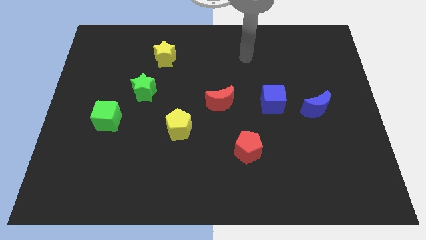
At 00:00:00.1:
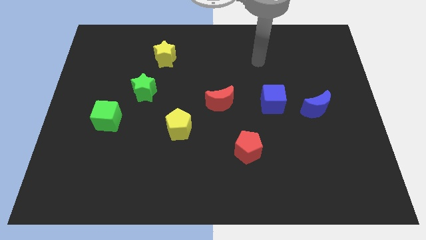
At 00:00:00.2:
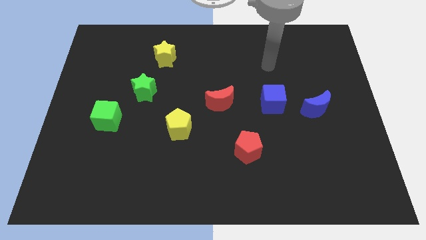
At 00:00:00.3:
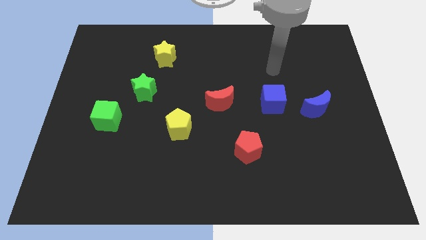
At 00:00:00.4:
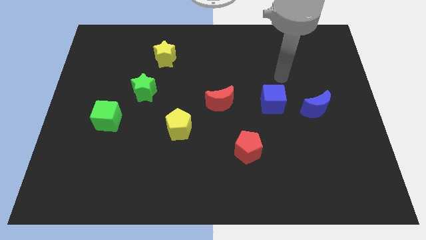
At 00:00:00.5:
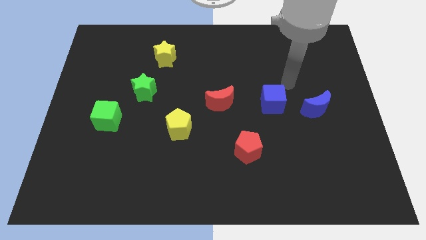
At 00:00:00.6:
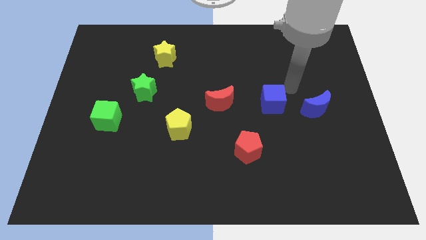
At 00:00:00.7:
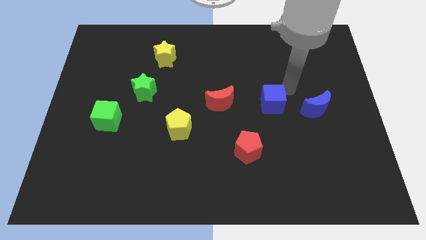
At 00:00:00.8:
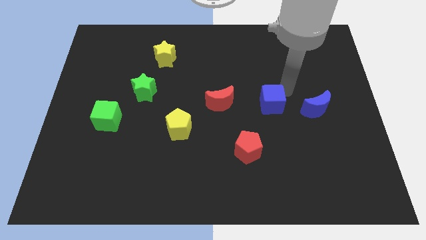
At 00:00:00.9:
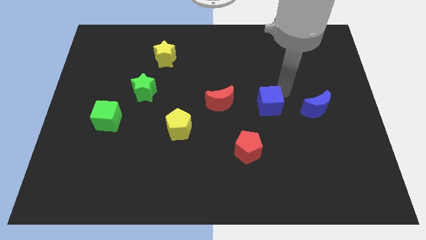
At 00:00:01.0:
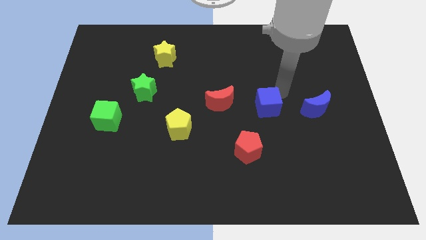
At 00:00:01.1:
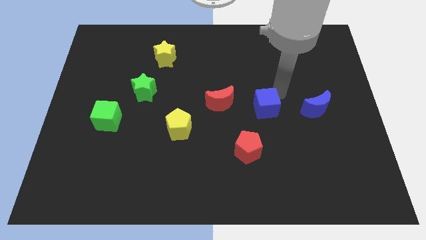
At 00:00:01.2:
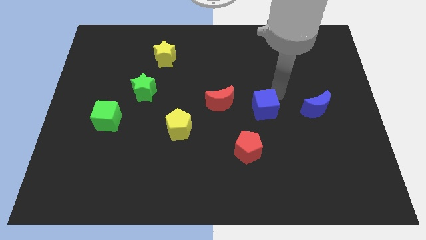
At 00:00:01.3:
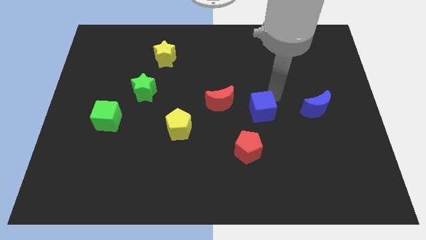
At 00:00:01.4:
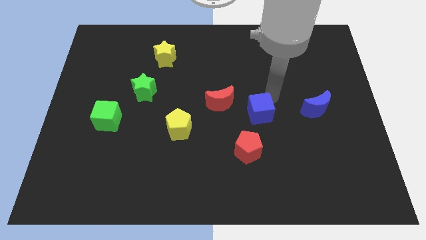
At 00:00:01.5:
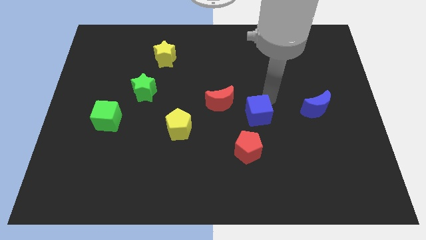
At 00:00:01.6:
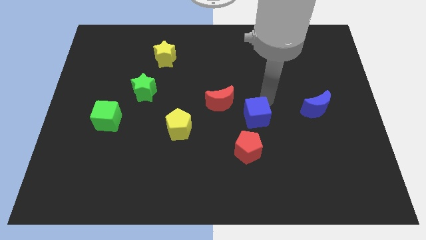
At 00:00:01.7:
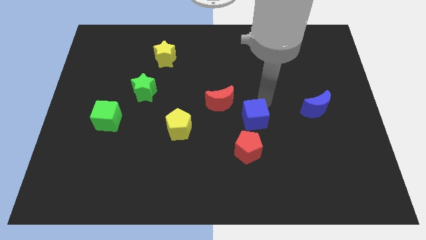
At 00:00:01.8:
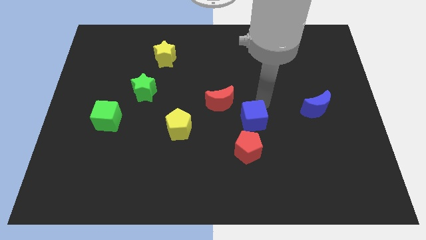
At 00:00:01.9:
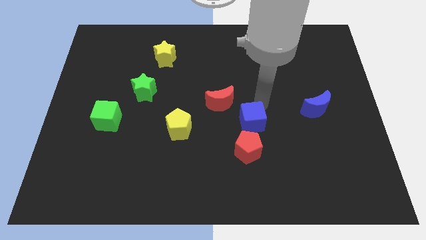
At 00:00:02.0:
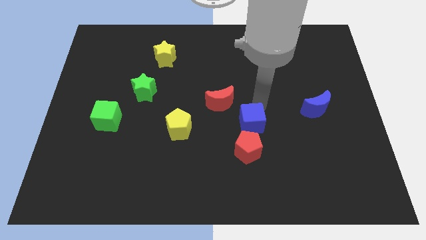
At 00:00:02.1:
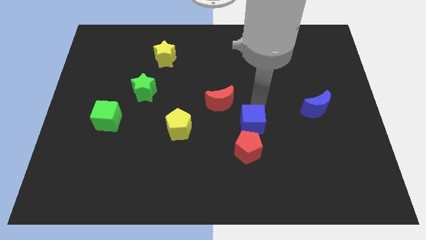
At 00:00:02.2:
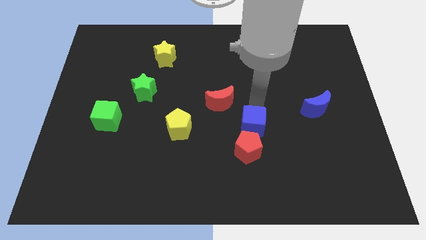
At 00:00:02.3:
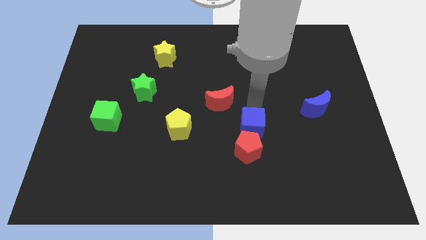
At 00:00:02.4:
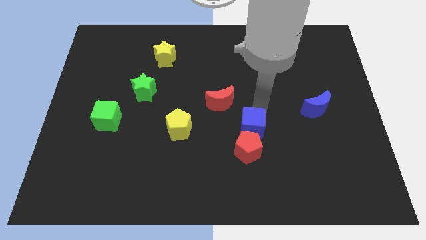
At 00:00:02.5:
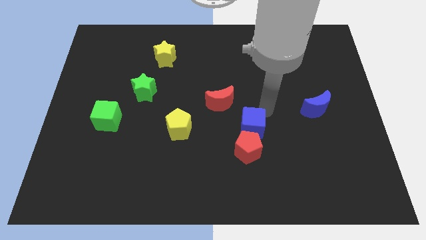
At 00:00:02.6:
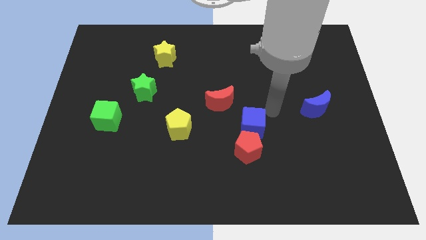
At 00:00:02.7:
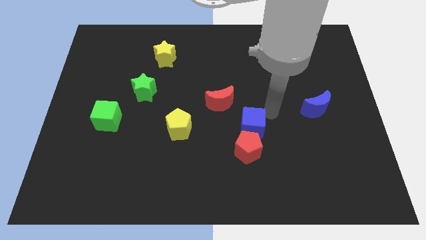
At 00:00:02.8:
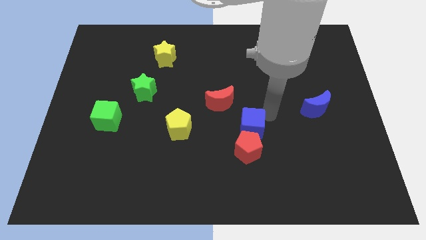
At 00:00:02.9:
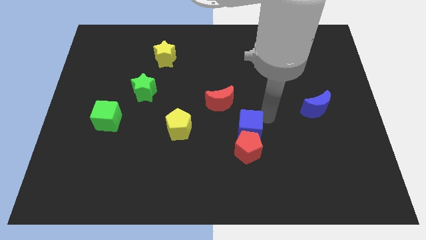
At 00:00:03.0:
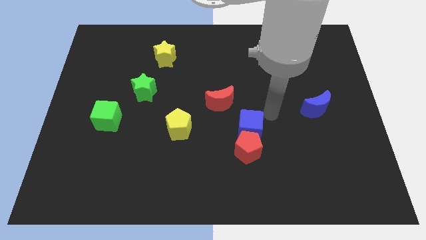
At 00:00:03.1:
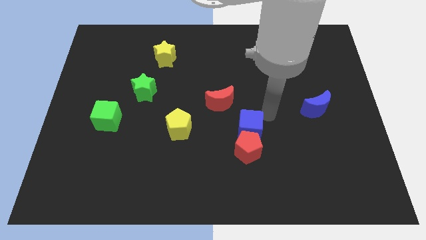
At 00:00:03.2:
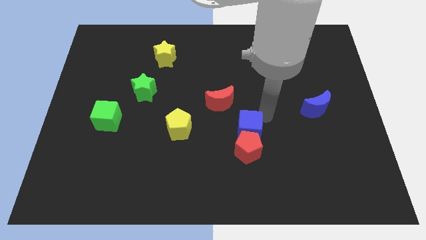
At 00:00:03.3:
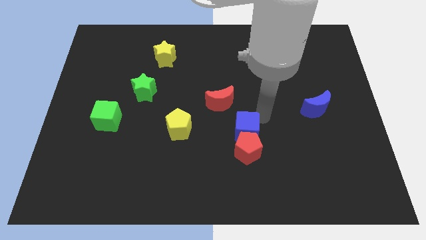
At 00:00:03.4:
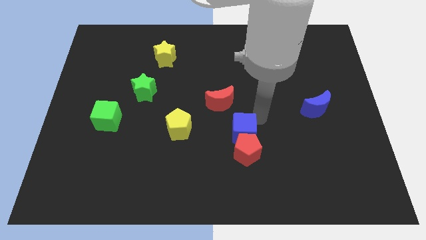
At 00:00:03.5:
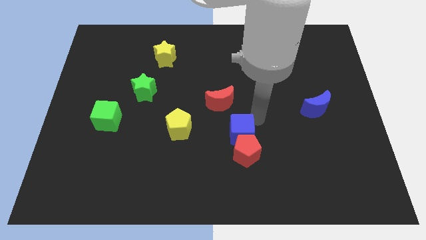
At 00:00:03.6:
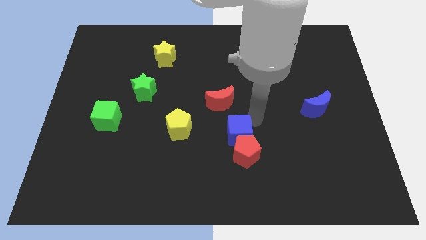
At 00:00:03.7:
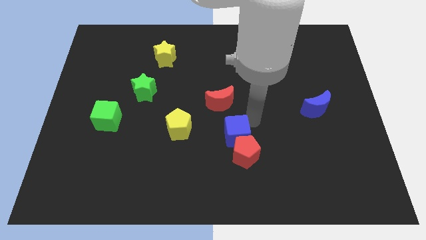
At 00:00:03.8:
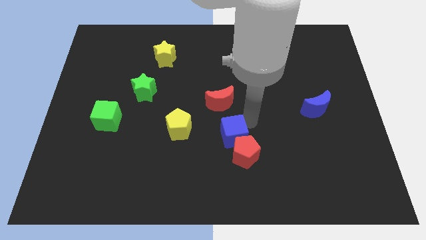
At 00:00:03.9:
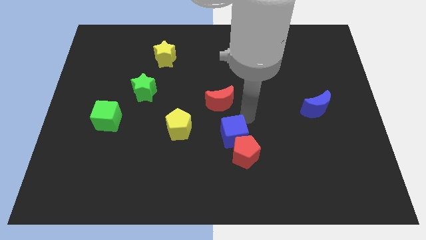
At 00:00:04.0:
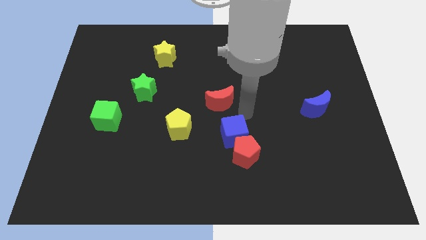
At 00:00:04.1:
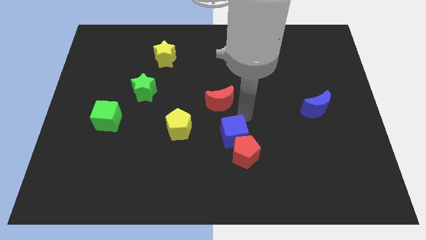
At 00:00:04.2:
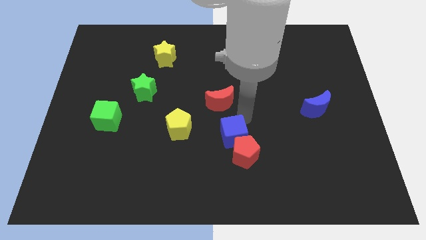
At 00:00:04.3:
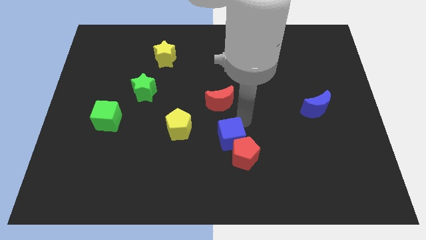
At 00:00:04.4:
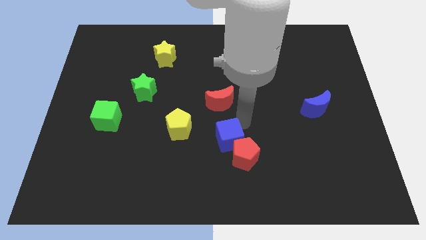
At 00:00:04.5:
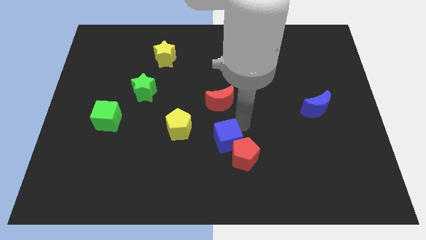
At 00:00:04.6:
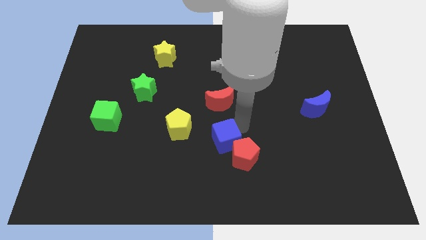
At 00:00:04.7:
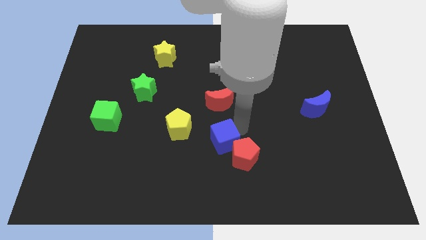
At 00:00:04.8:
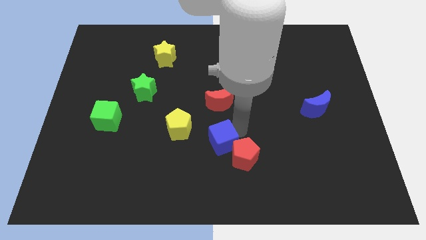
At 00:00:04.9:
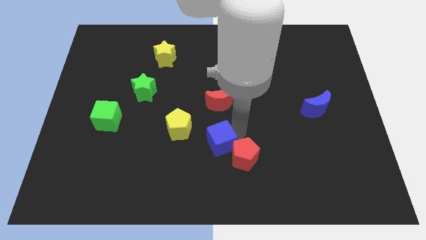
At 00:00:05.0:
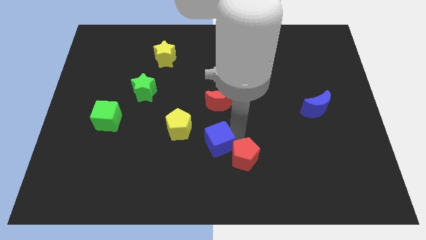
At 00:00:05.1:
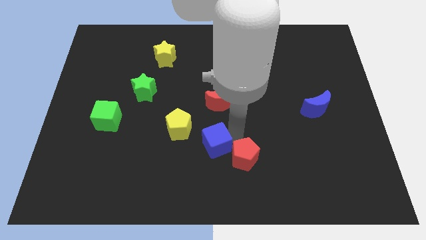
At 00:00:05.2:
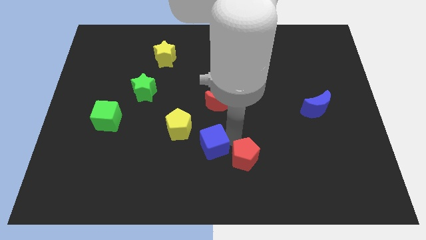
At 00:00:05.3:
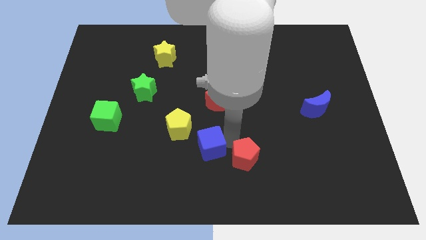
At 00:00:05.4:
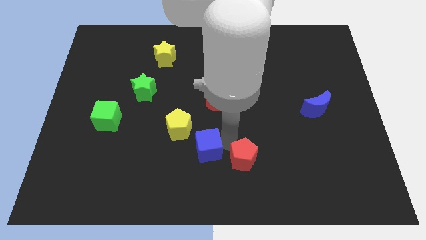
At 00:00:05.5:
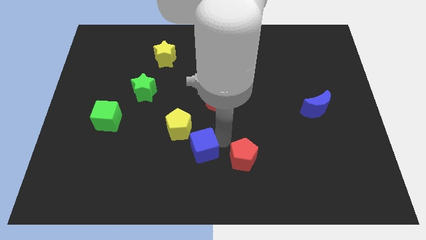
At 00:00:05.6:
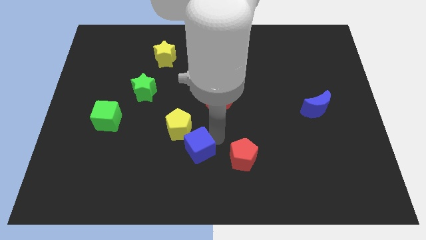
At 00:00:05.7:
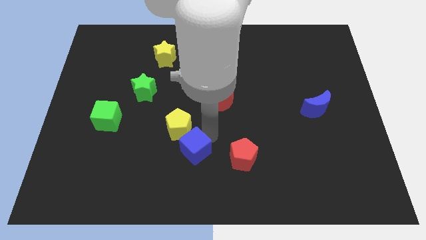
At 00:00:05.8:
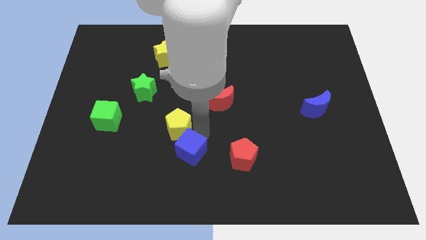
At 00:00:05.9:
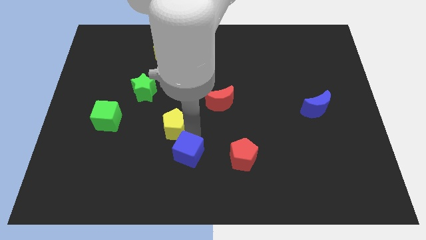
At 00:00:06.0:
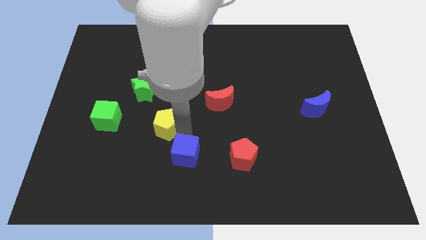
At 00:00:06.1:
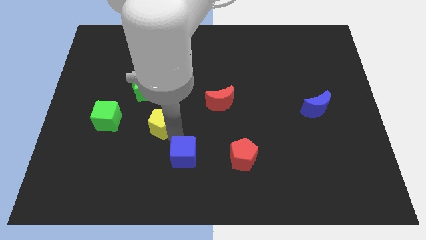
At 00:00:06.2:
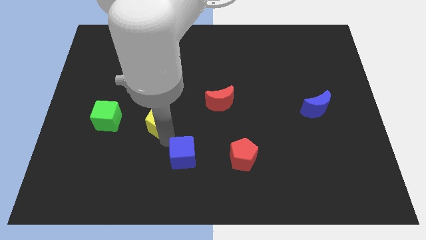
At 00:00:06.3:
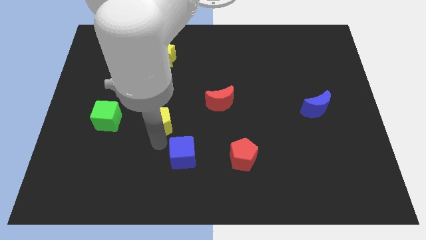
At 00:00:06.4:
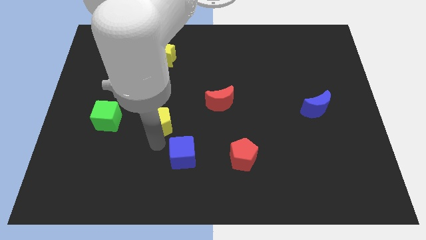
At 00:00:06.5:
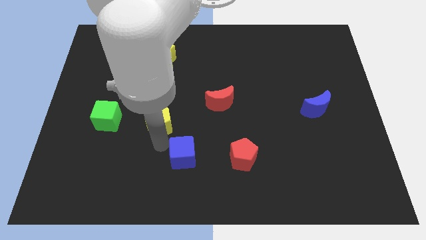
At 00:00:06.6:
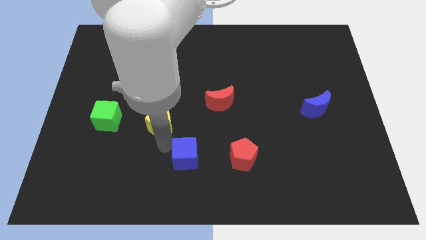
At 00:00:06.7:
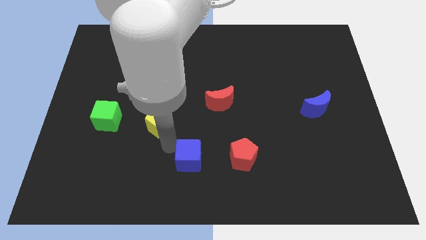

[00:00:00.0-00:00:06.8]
put the blue cube to the bottom side

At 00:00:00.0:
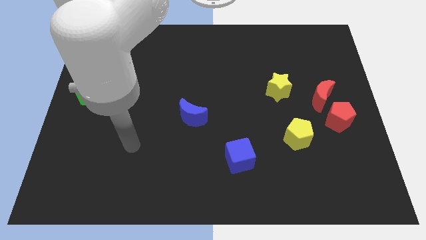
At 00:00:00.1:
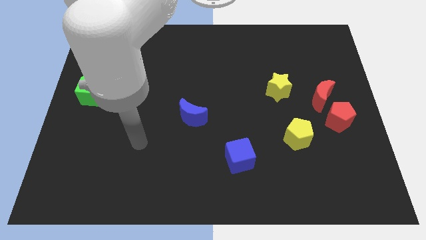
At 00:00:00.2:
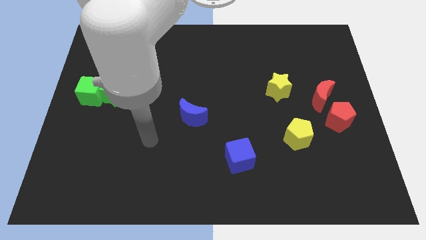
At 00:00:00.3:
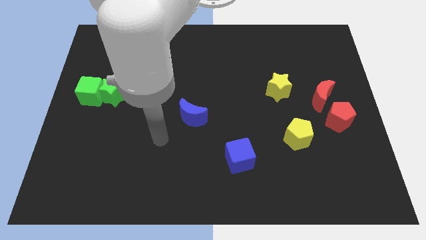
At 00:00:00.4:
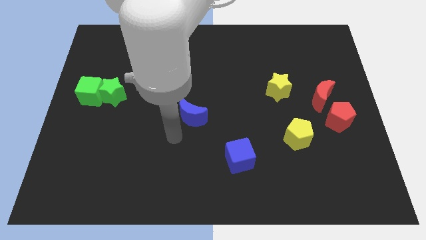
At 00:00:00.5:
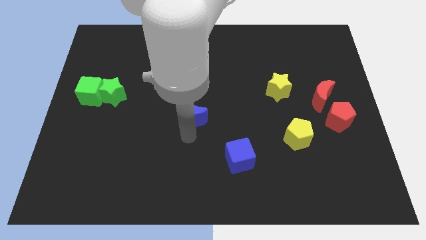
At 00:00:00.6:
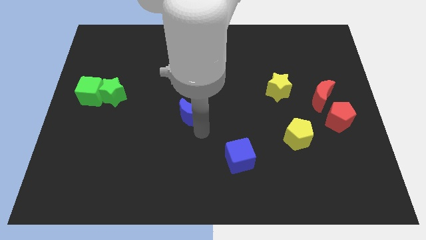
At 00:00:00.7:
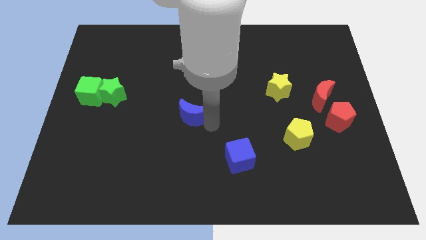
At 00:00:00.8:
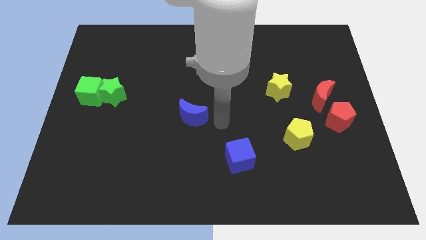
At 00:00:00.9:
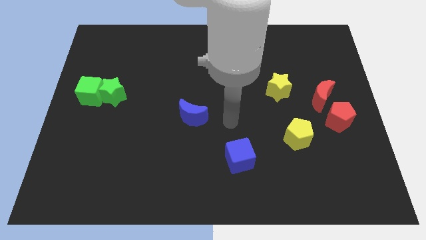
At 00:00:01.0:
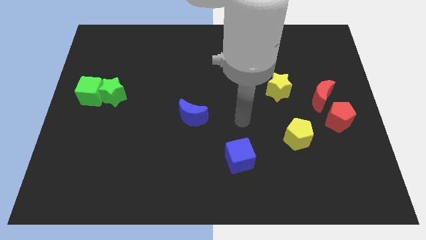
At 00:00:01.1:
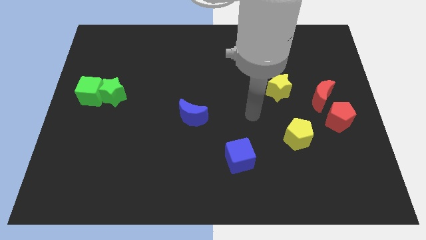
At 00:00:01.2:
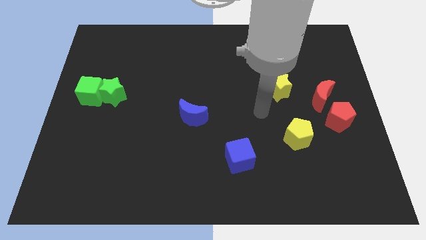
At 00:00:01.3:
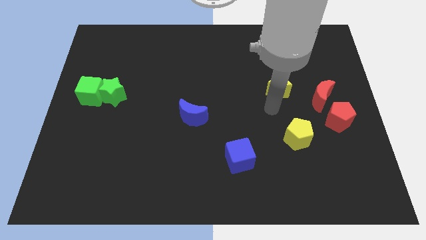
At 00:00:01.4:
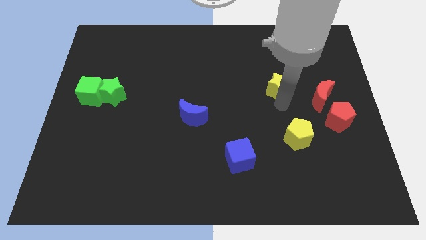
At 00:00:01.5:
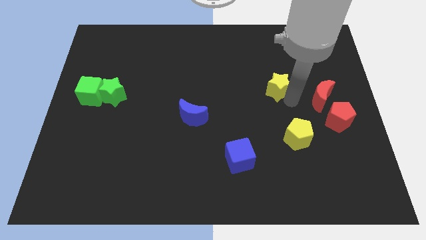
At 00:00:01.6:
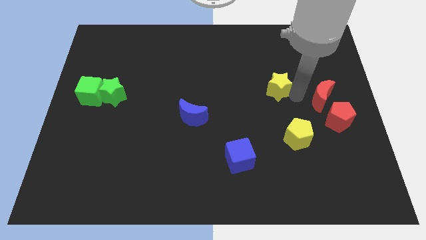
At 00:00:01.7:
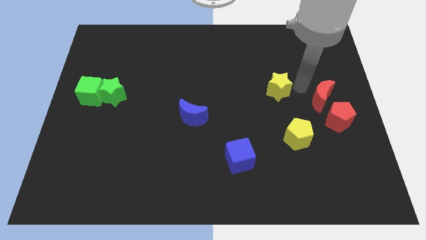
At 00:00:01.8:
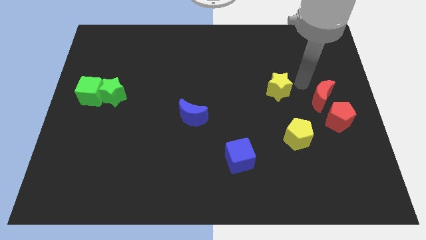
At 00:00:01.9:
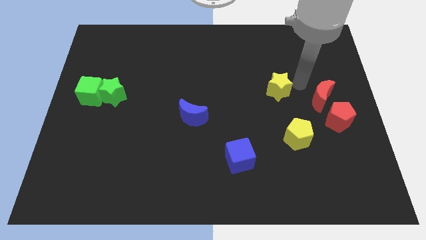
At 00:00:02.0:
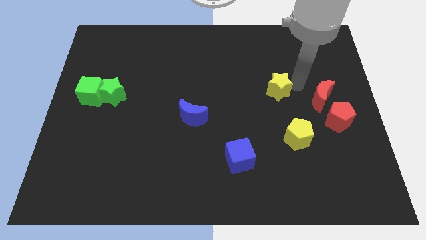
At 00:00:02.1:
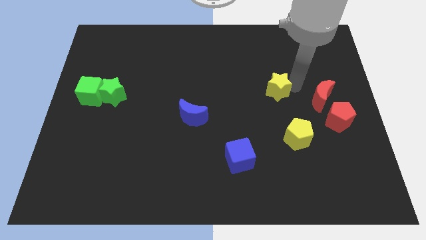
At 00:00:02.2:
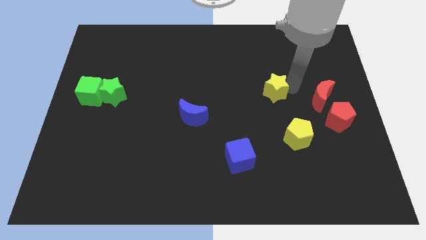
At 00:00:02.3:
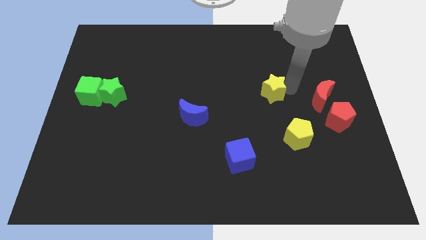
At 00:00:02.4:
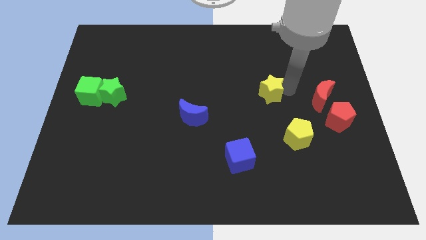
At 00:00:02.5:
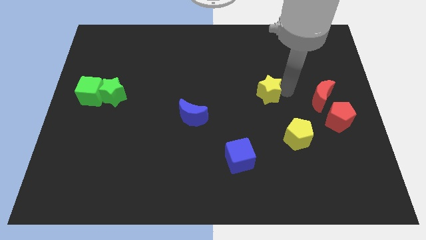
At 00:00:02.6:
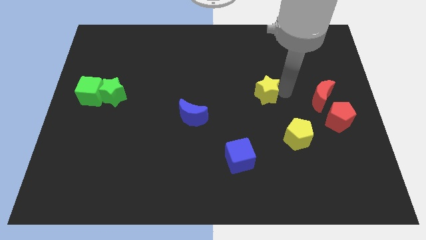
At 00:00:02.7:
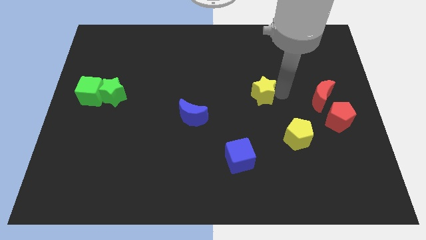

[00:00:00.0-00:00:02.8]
slide the yellow star to the center of the board
